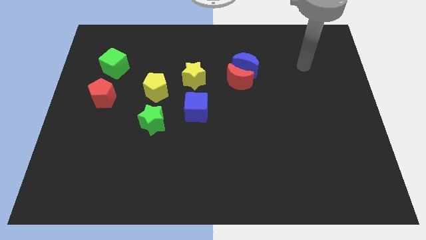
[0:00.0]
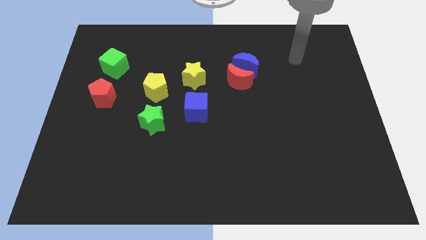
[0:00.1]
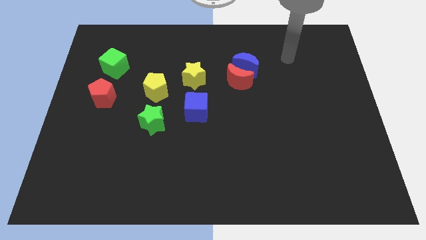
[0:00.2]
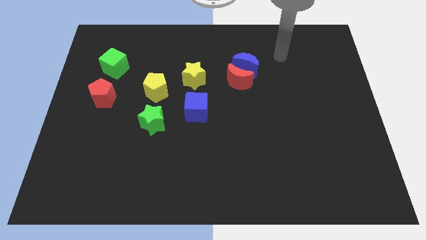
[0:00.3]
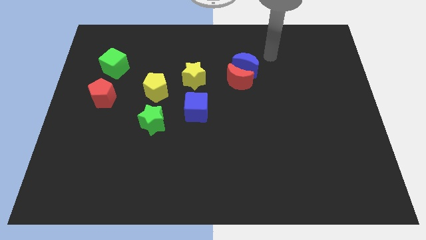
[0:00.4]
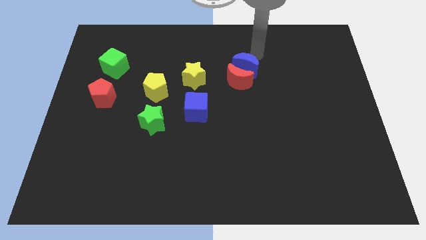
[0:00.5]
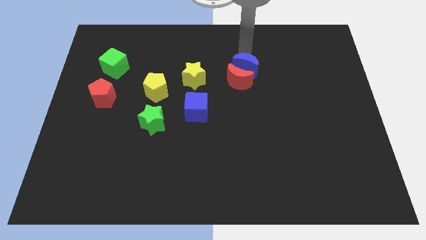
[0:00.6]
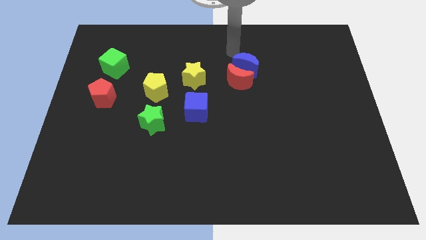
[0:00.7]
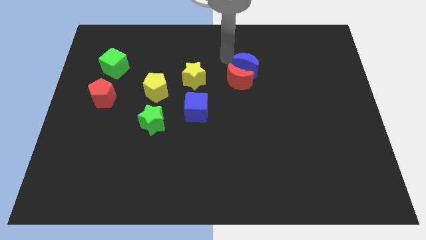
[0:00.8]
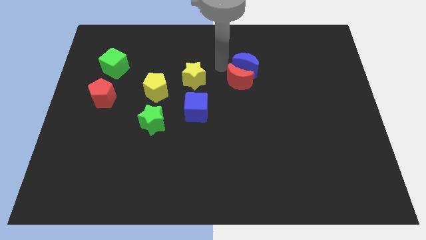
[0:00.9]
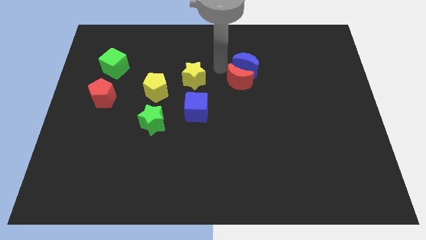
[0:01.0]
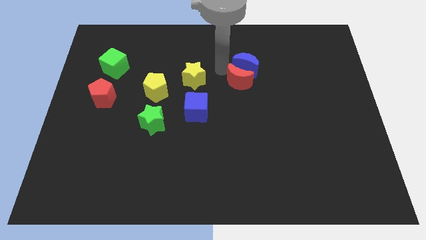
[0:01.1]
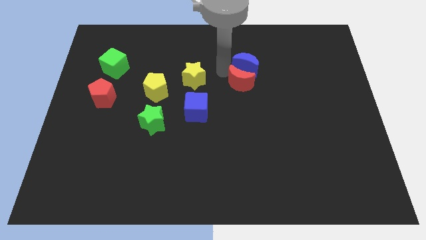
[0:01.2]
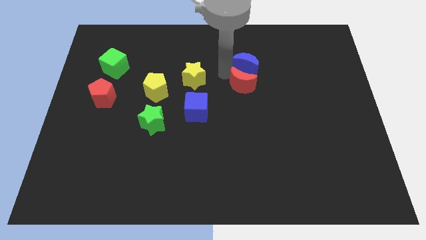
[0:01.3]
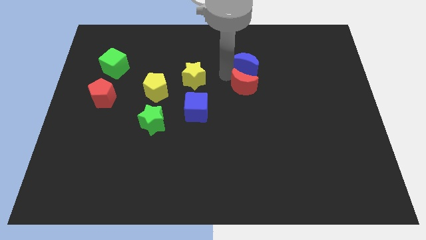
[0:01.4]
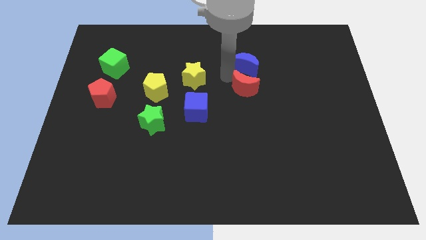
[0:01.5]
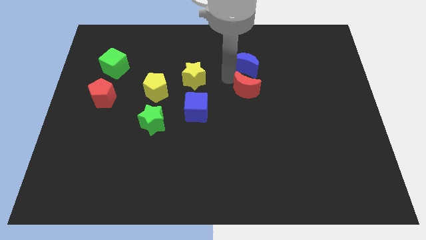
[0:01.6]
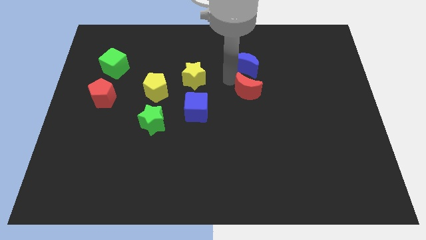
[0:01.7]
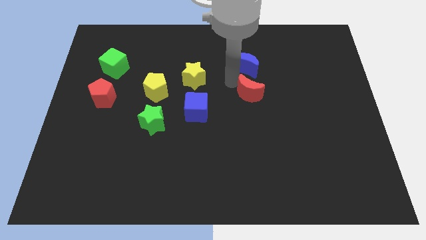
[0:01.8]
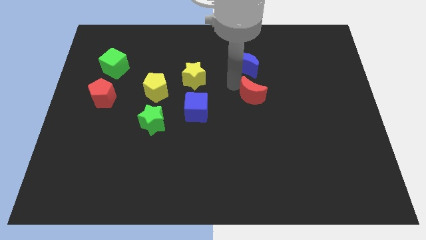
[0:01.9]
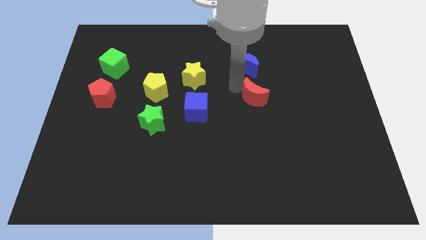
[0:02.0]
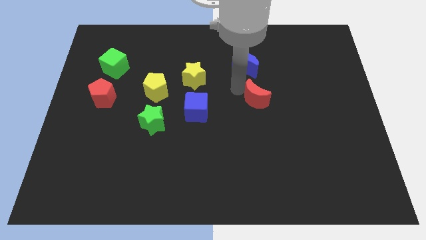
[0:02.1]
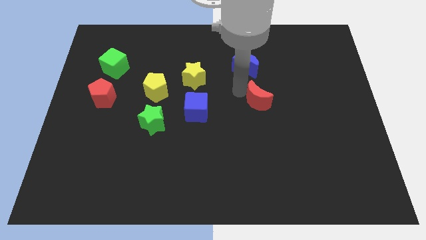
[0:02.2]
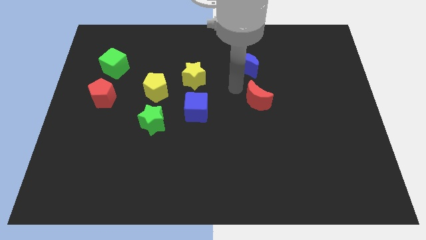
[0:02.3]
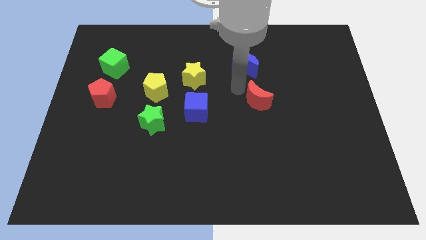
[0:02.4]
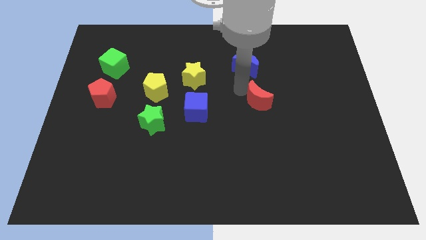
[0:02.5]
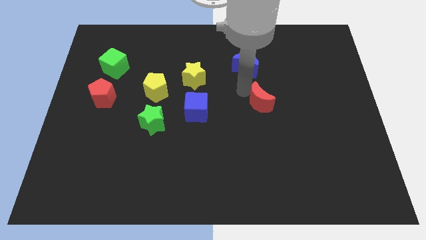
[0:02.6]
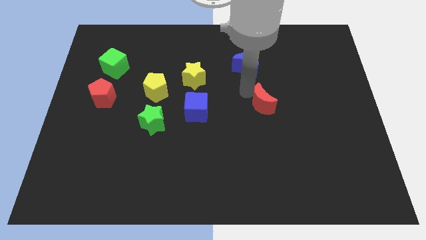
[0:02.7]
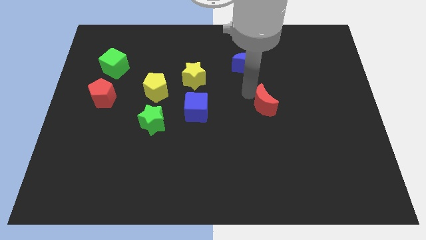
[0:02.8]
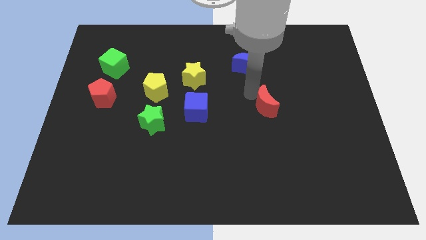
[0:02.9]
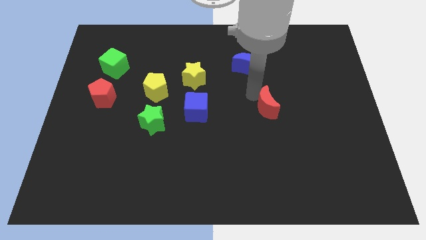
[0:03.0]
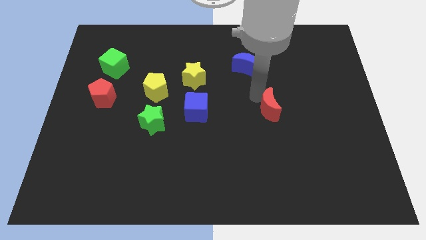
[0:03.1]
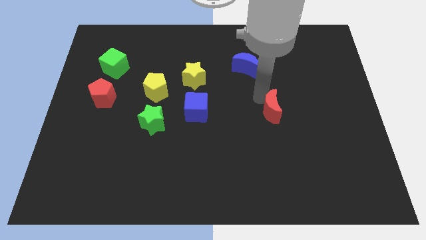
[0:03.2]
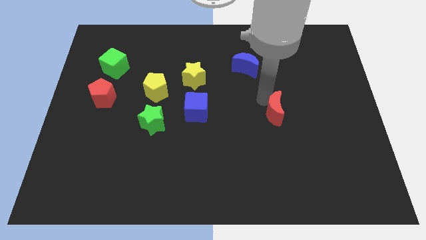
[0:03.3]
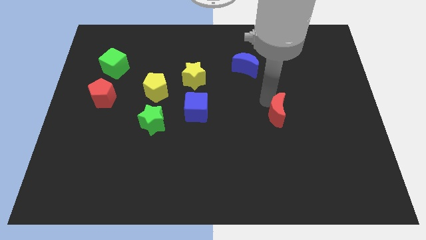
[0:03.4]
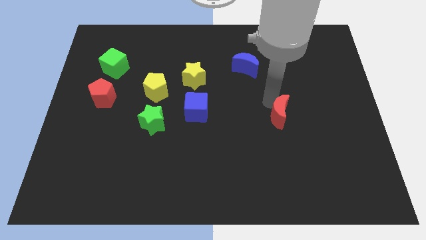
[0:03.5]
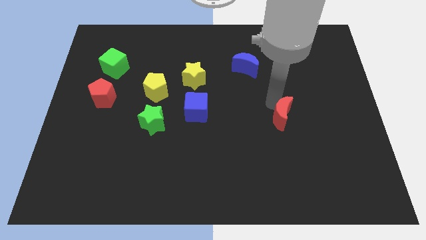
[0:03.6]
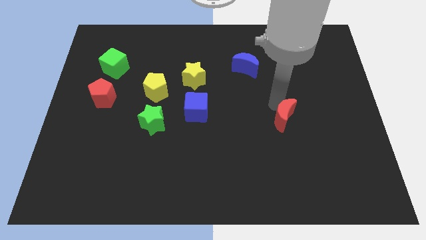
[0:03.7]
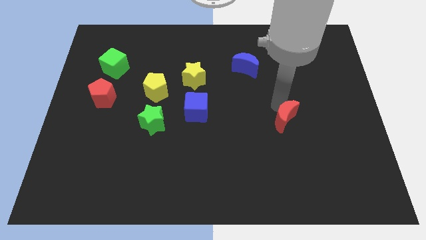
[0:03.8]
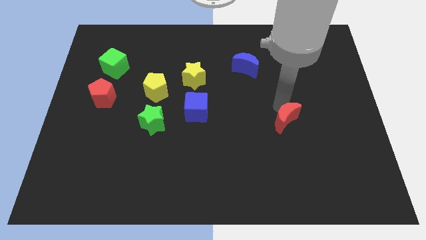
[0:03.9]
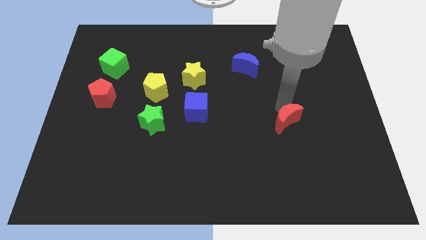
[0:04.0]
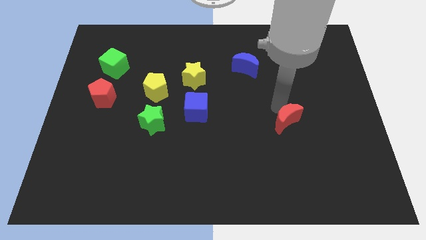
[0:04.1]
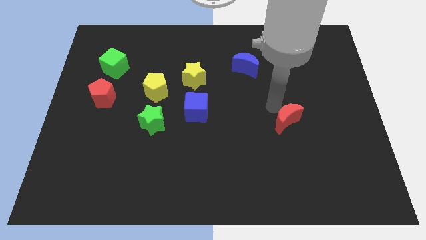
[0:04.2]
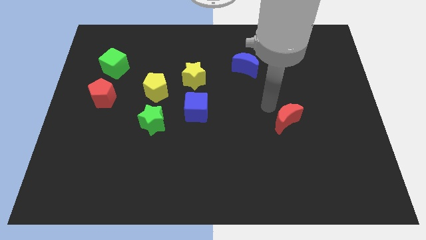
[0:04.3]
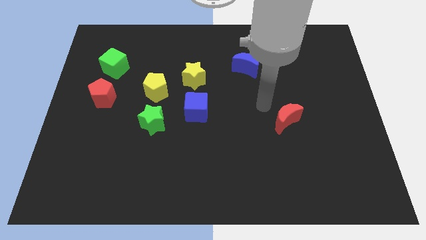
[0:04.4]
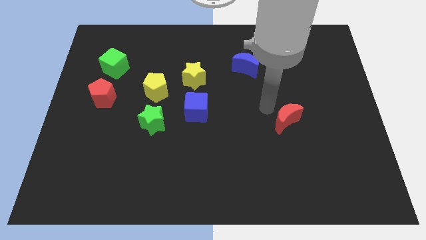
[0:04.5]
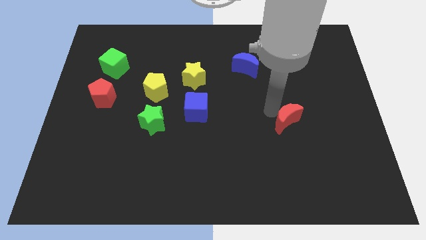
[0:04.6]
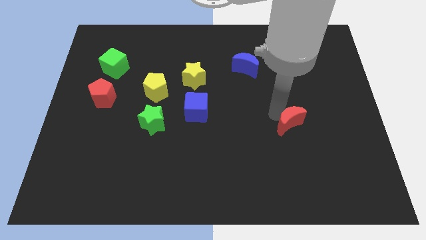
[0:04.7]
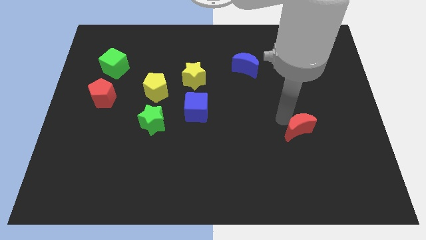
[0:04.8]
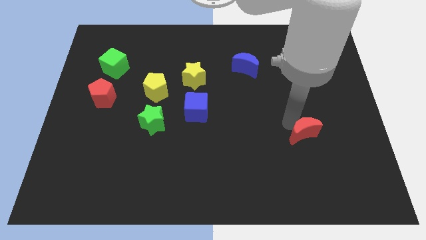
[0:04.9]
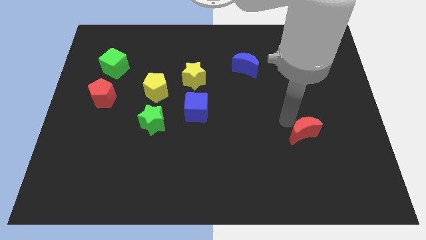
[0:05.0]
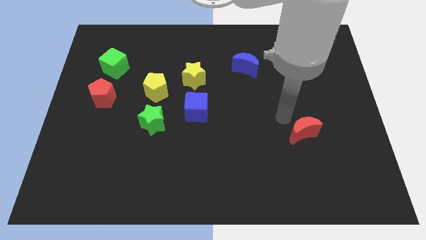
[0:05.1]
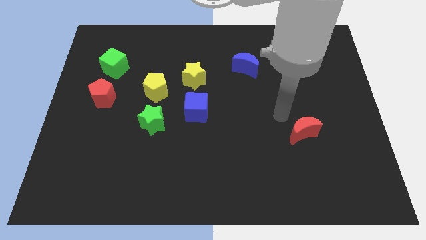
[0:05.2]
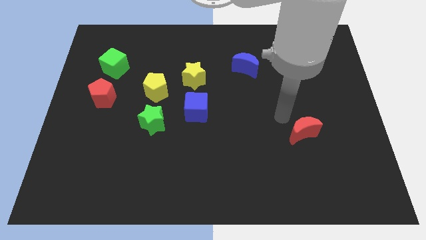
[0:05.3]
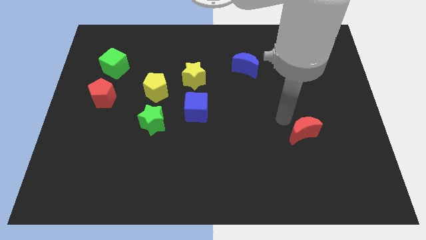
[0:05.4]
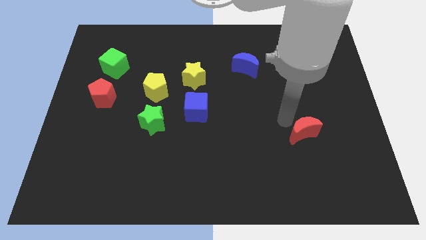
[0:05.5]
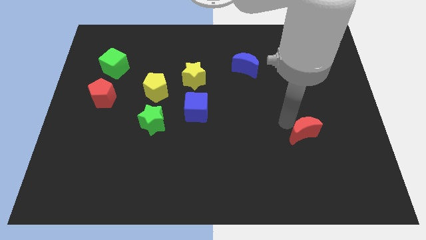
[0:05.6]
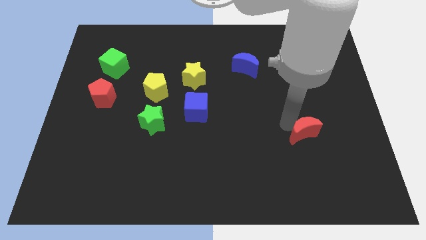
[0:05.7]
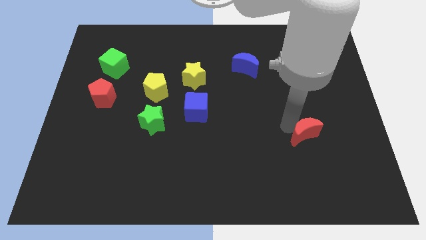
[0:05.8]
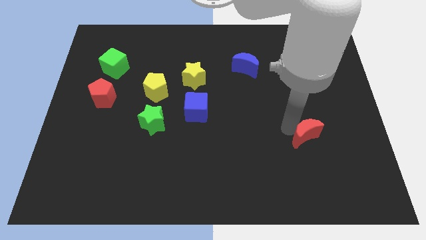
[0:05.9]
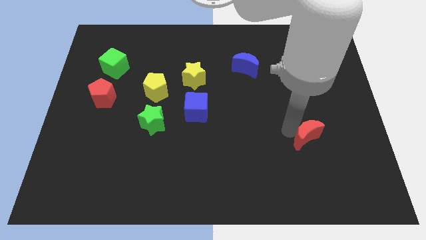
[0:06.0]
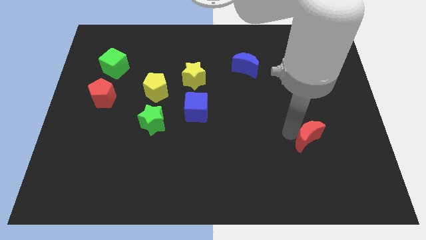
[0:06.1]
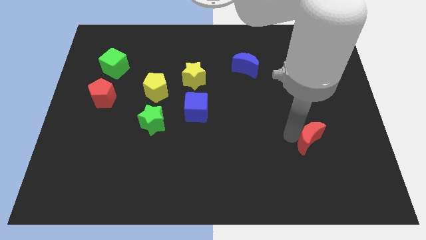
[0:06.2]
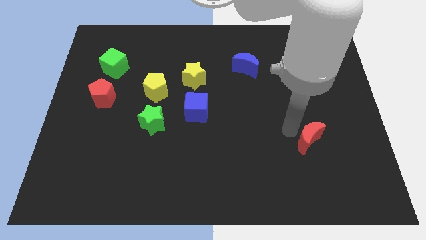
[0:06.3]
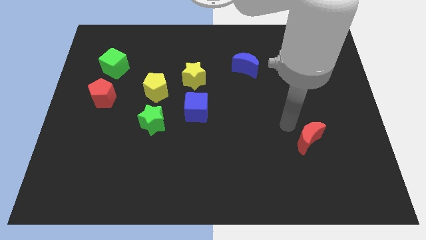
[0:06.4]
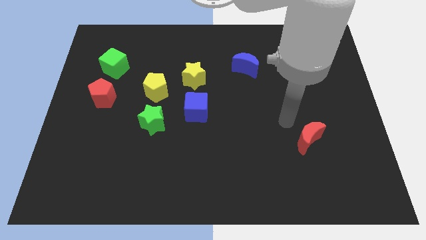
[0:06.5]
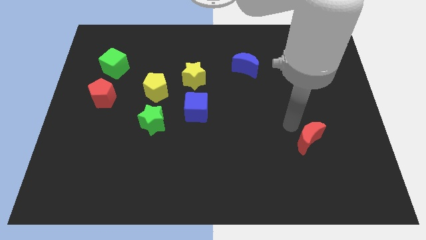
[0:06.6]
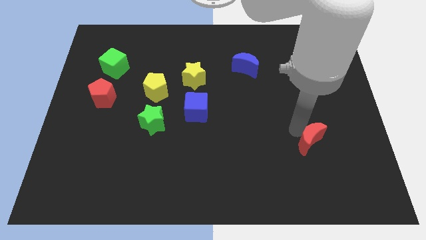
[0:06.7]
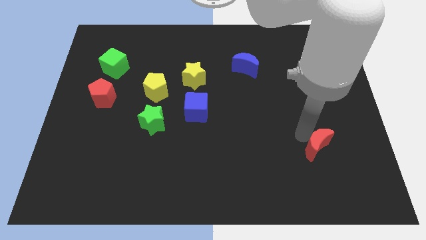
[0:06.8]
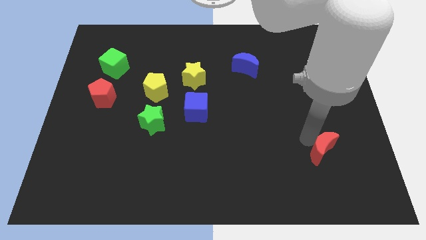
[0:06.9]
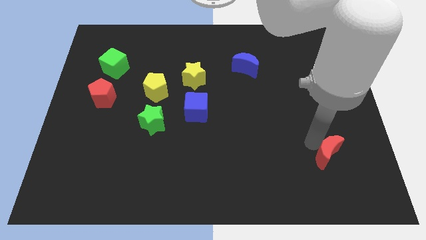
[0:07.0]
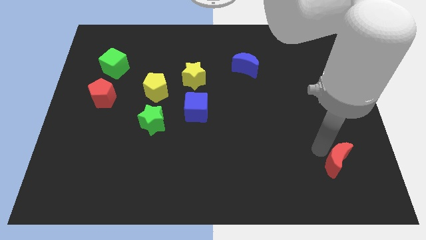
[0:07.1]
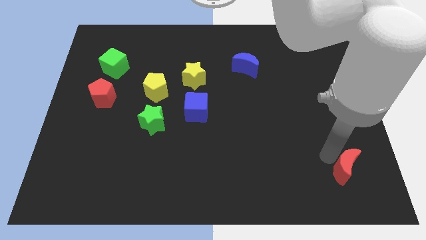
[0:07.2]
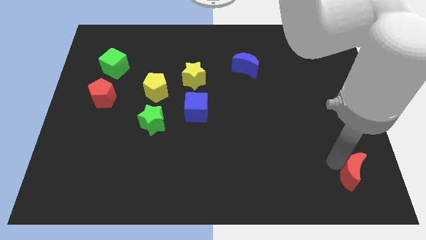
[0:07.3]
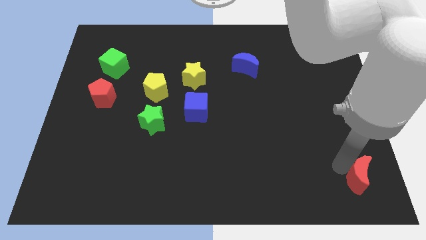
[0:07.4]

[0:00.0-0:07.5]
put the red moon to the bottom right corner

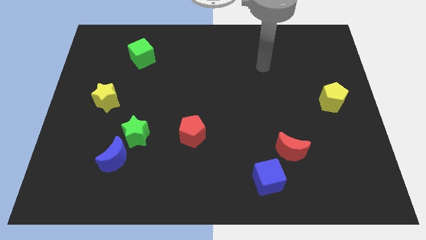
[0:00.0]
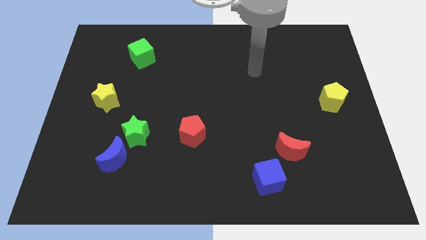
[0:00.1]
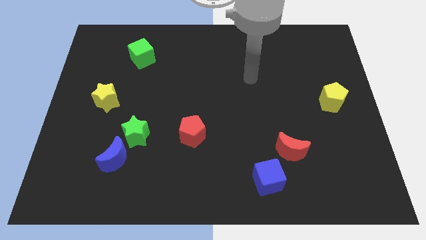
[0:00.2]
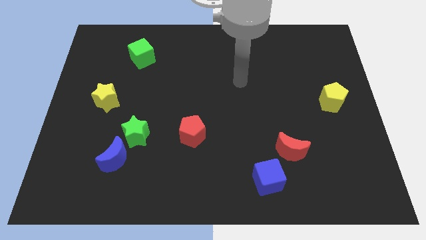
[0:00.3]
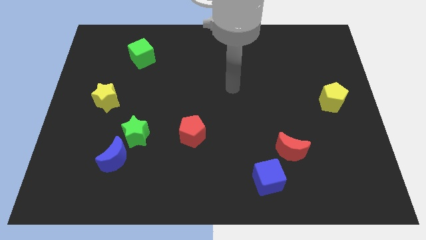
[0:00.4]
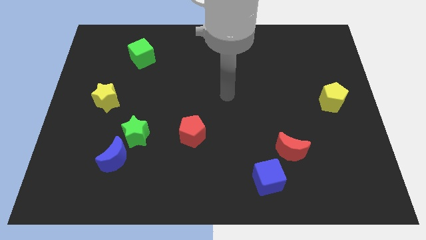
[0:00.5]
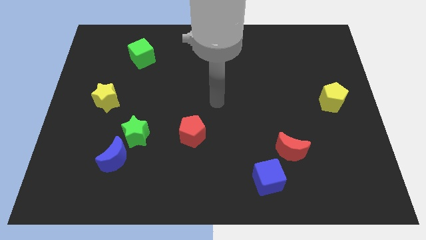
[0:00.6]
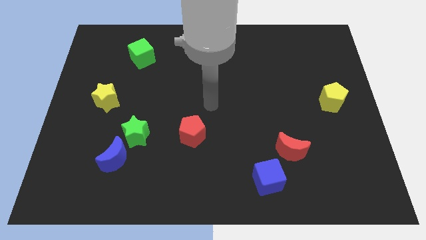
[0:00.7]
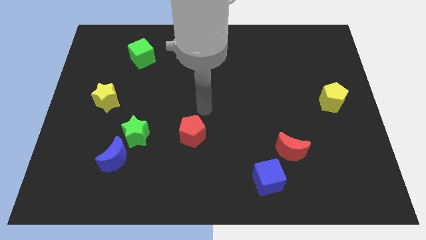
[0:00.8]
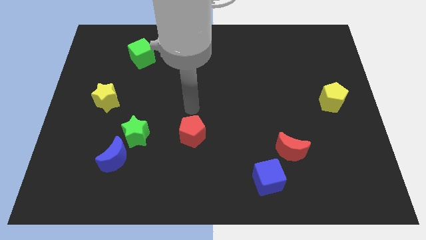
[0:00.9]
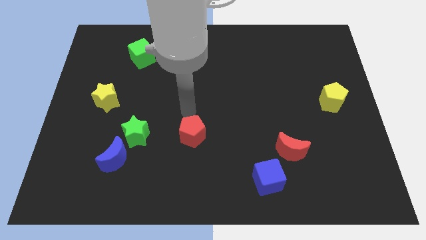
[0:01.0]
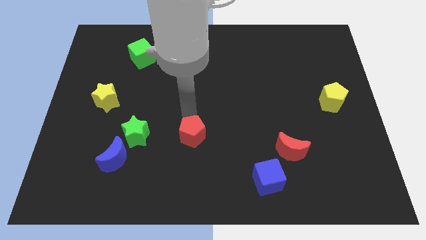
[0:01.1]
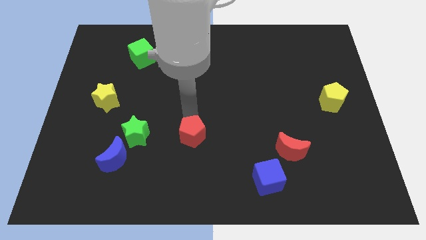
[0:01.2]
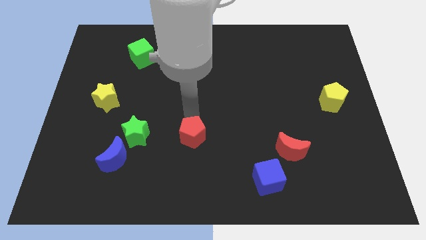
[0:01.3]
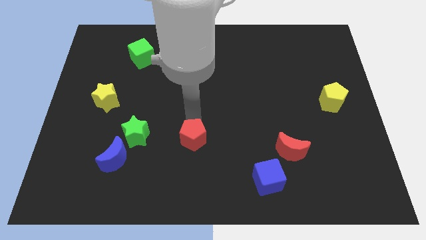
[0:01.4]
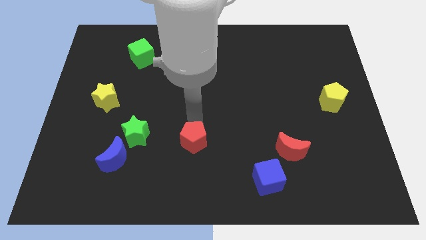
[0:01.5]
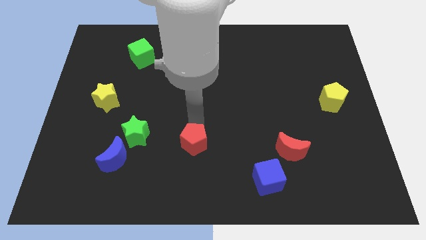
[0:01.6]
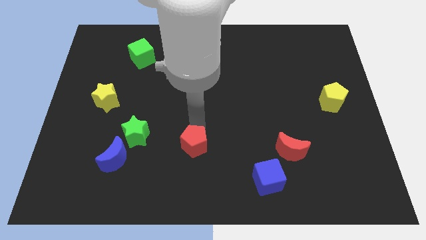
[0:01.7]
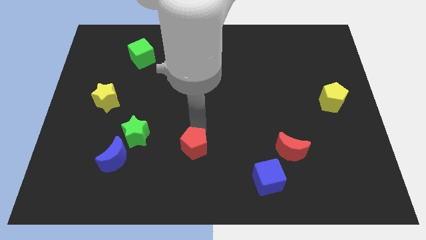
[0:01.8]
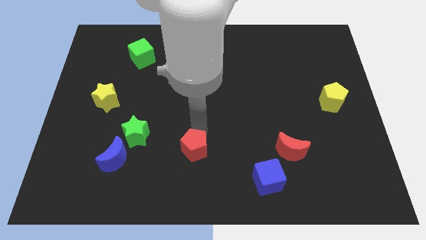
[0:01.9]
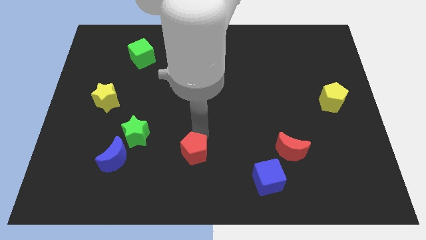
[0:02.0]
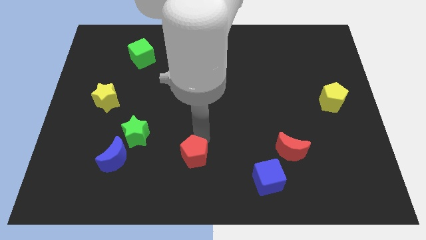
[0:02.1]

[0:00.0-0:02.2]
push the red pentagon to the bottom
